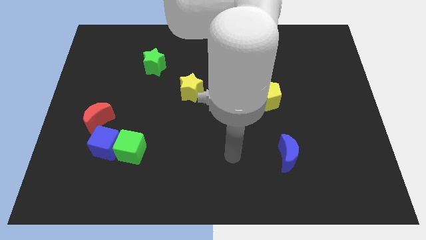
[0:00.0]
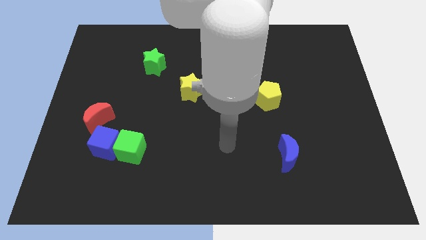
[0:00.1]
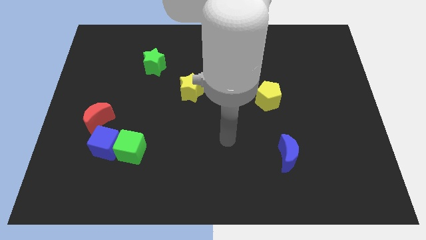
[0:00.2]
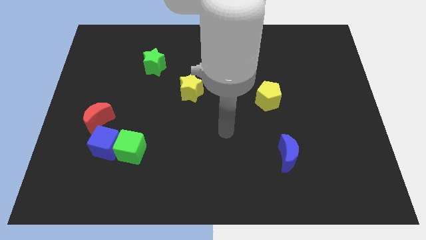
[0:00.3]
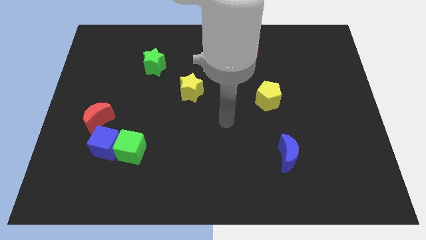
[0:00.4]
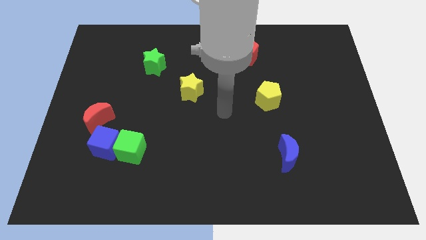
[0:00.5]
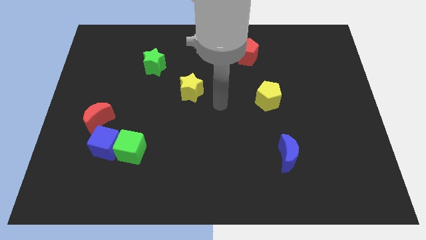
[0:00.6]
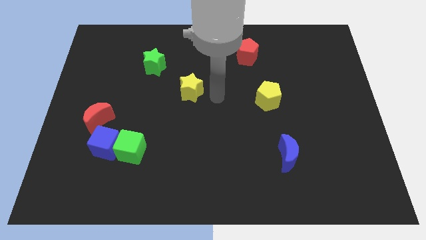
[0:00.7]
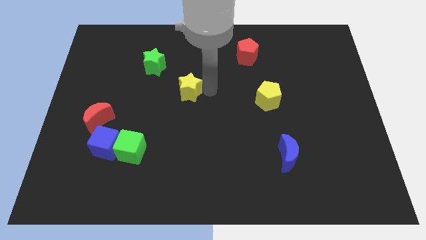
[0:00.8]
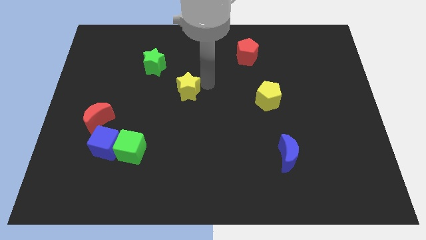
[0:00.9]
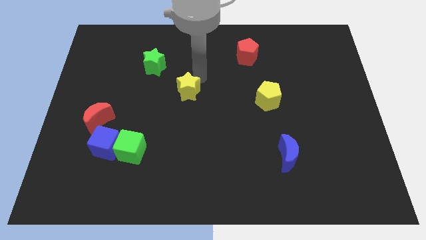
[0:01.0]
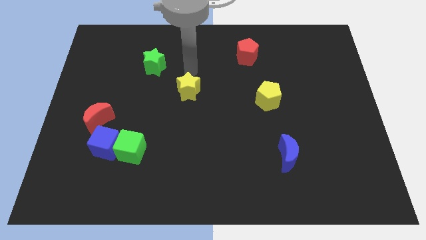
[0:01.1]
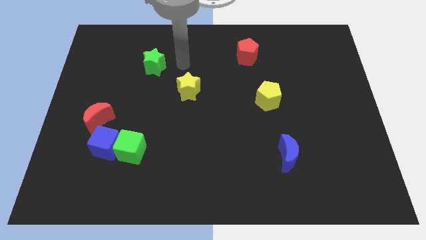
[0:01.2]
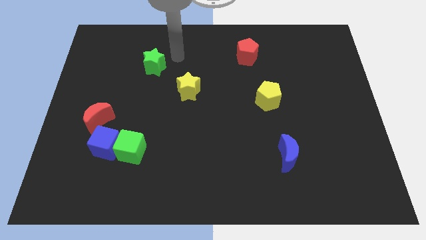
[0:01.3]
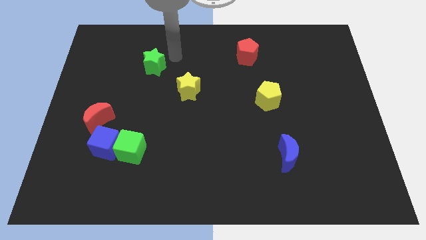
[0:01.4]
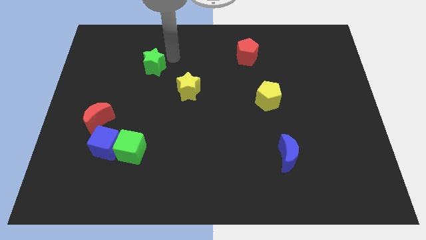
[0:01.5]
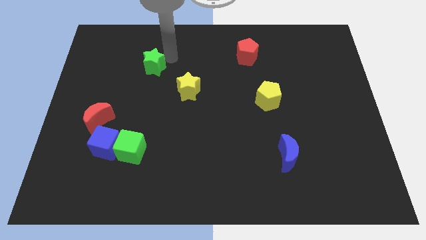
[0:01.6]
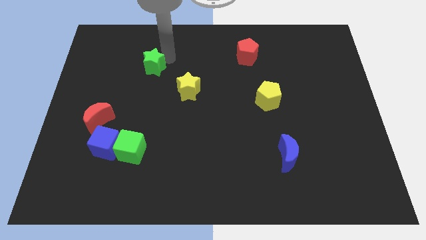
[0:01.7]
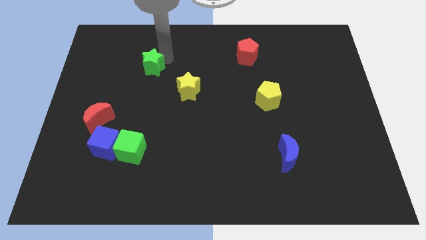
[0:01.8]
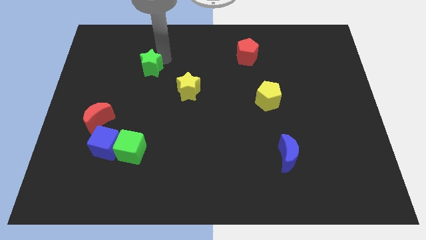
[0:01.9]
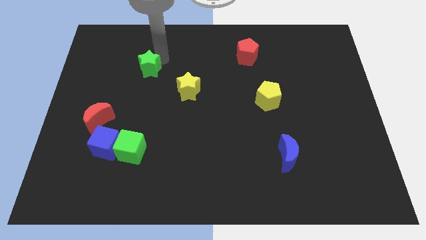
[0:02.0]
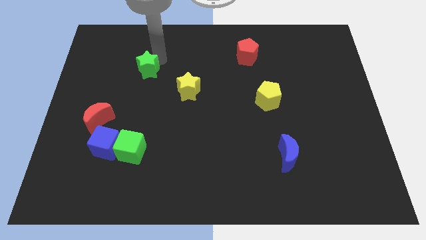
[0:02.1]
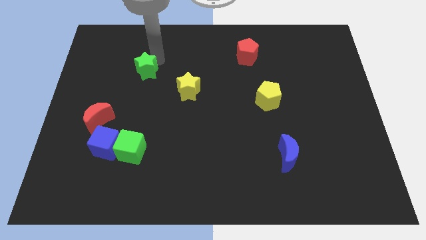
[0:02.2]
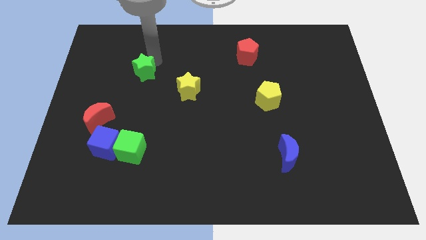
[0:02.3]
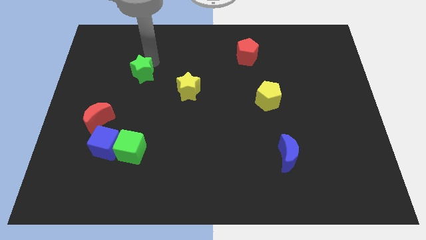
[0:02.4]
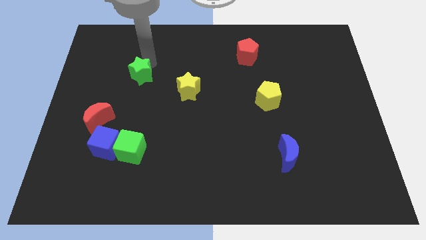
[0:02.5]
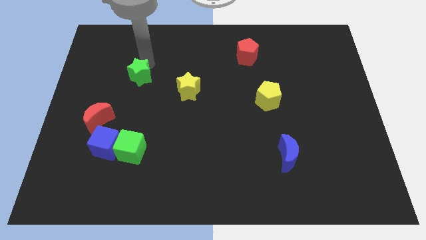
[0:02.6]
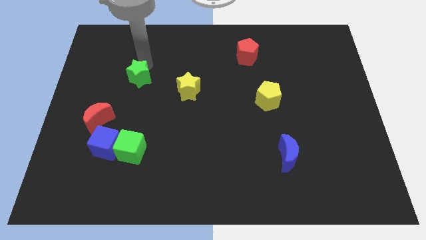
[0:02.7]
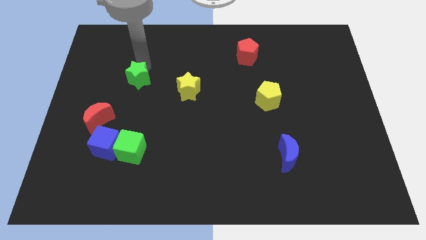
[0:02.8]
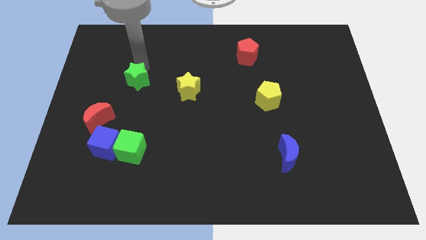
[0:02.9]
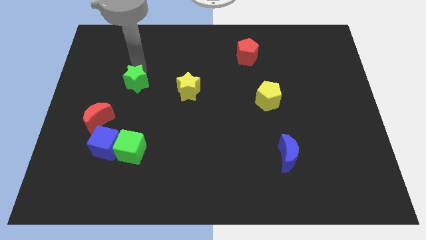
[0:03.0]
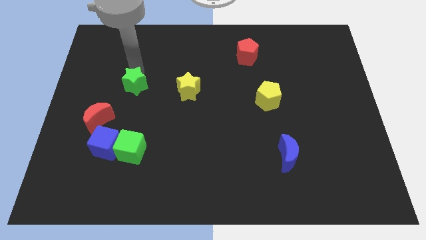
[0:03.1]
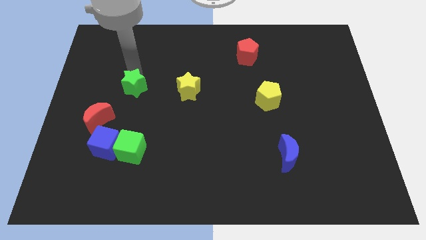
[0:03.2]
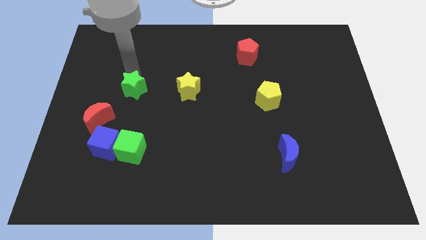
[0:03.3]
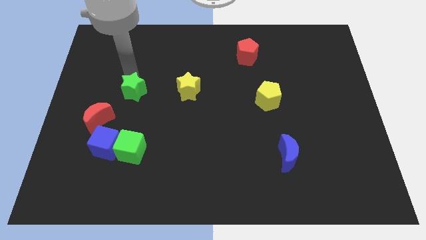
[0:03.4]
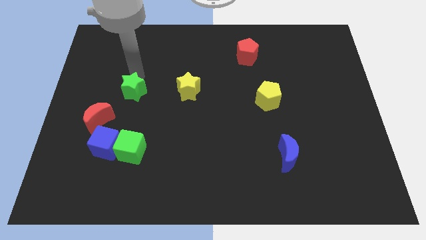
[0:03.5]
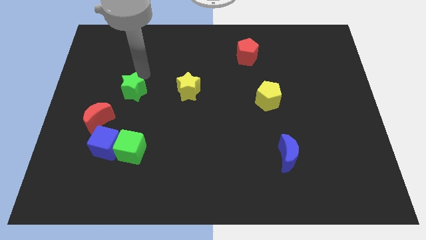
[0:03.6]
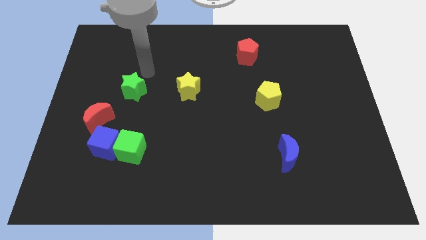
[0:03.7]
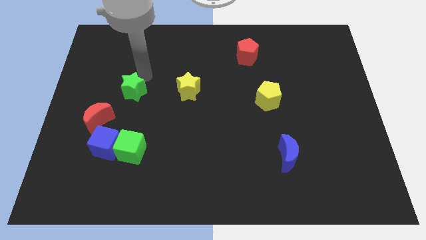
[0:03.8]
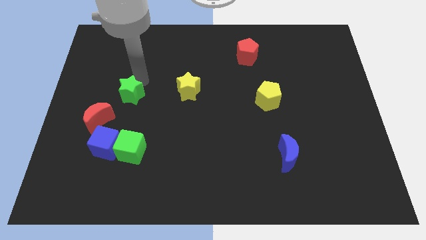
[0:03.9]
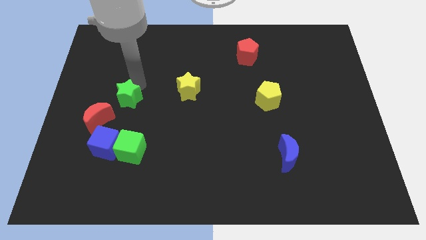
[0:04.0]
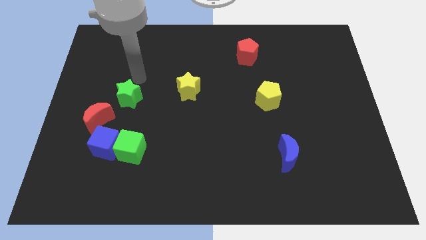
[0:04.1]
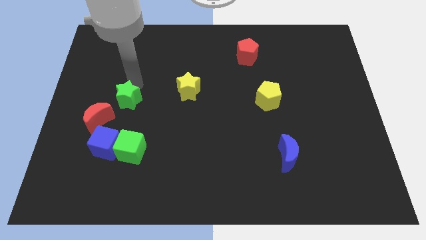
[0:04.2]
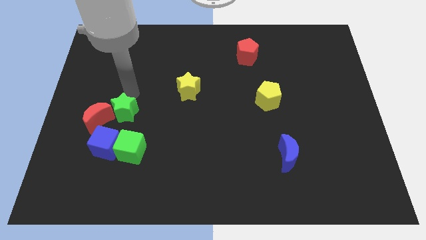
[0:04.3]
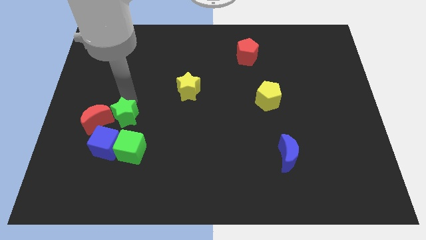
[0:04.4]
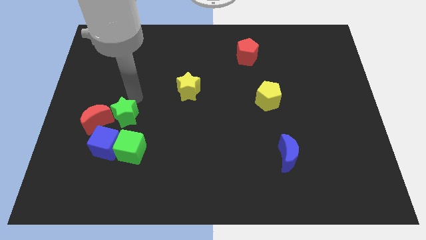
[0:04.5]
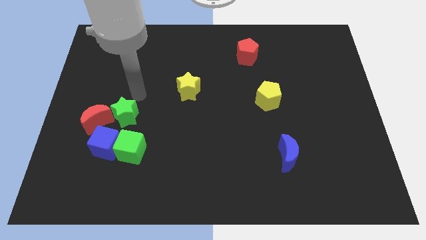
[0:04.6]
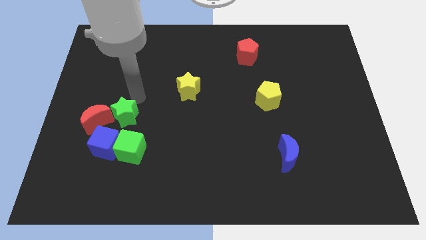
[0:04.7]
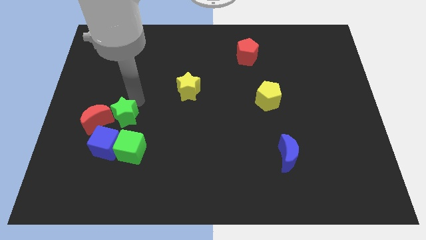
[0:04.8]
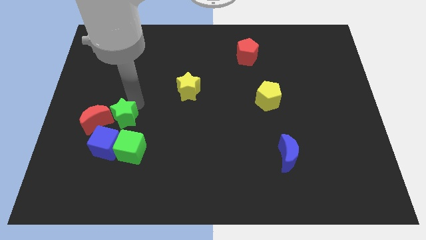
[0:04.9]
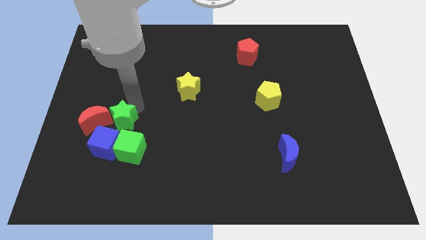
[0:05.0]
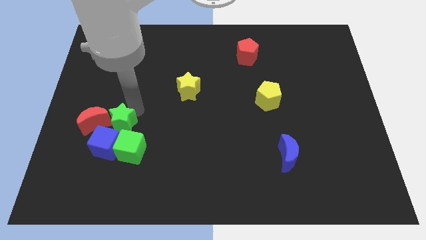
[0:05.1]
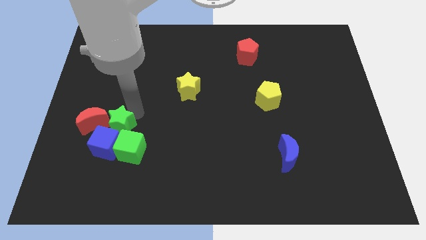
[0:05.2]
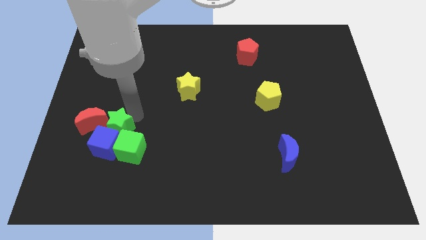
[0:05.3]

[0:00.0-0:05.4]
push the green star close to the blue cube

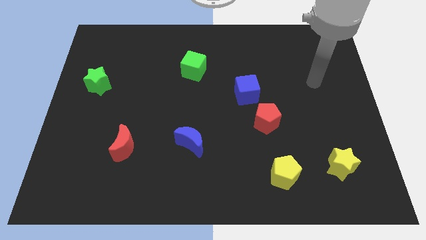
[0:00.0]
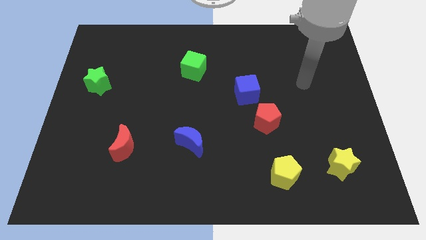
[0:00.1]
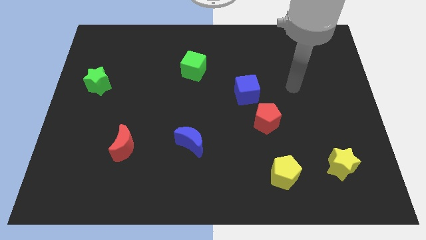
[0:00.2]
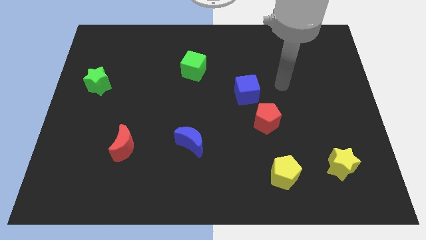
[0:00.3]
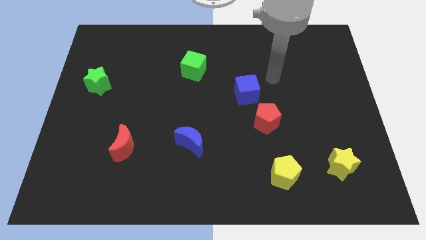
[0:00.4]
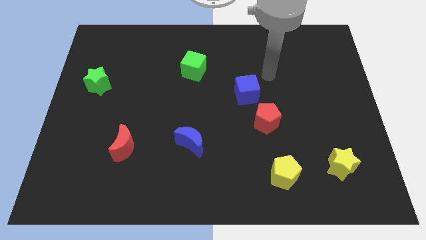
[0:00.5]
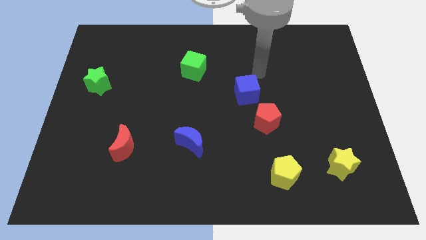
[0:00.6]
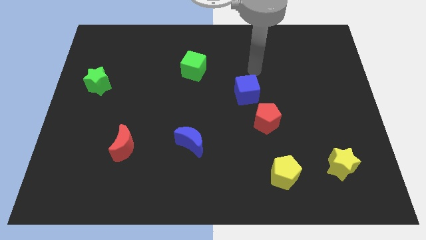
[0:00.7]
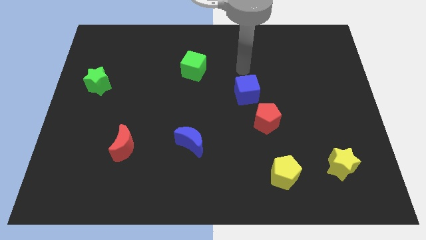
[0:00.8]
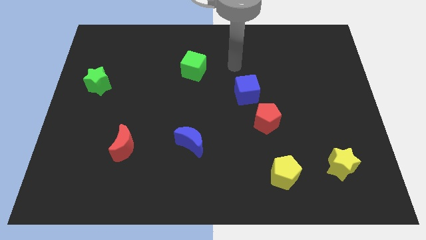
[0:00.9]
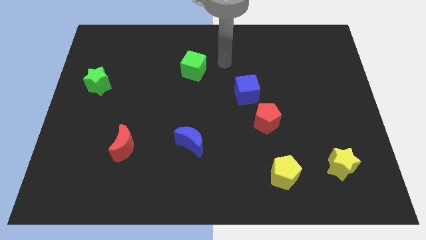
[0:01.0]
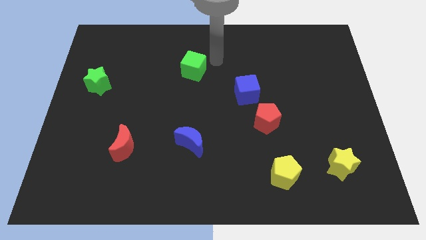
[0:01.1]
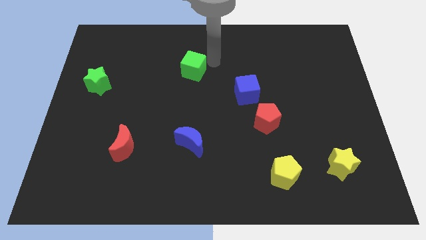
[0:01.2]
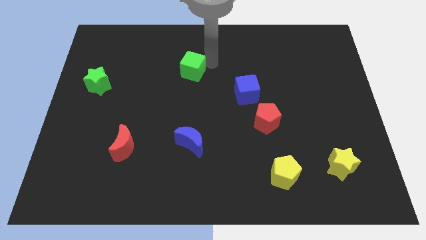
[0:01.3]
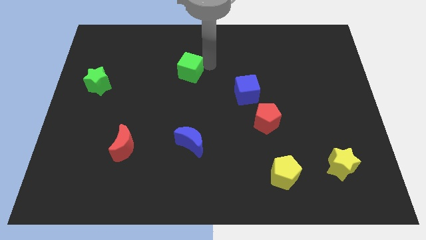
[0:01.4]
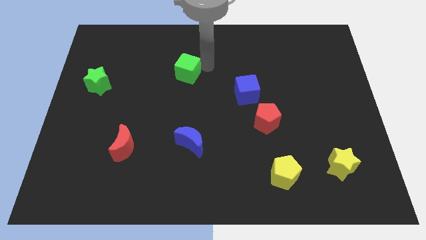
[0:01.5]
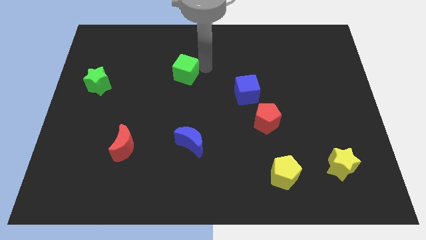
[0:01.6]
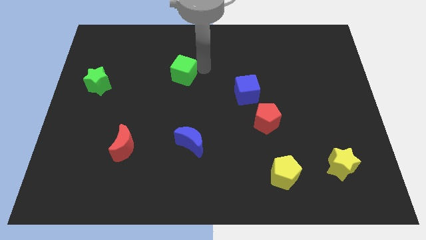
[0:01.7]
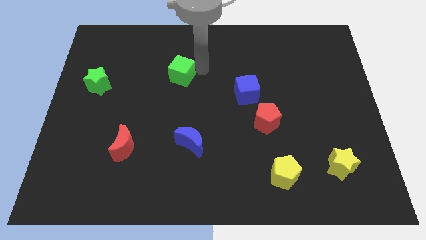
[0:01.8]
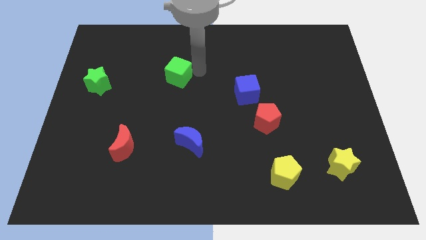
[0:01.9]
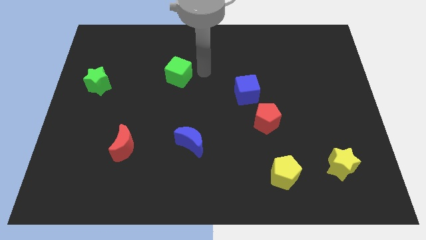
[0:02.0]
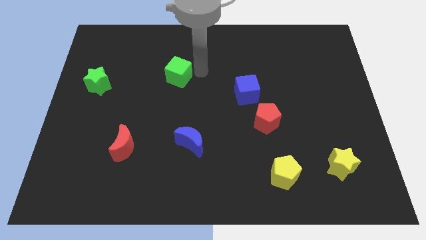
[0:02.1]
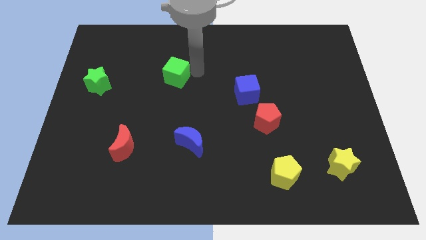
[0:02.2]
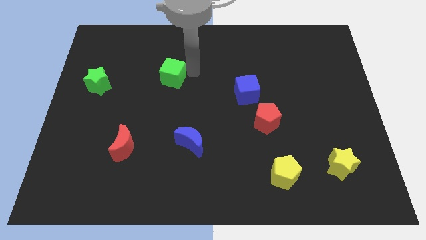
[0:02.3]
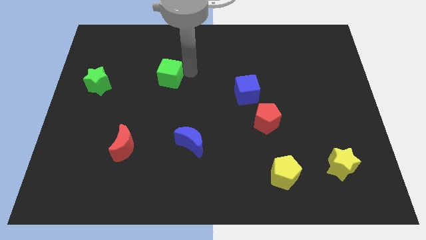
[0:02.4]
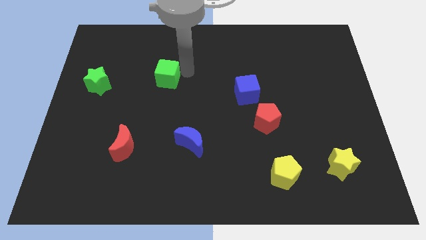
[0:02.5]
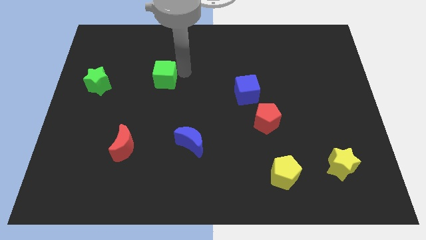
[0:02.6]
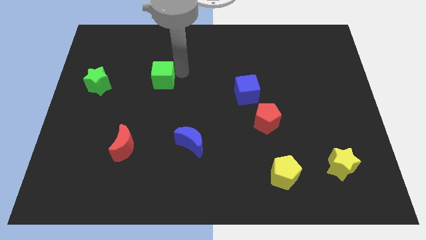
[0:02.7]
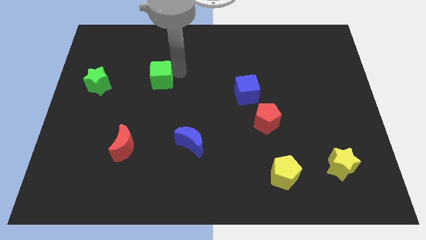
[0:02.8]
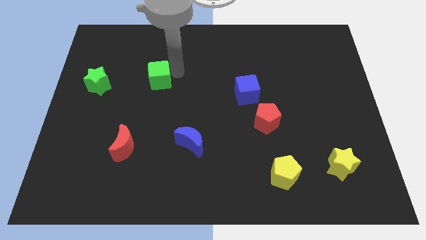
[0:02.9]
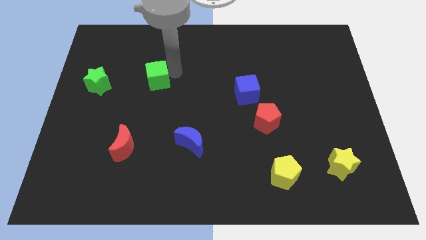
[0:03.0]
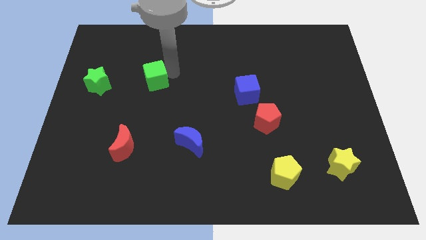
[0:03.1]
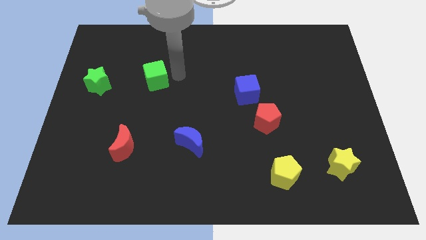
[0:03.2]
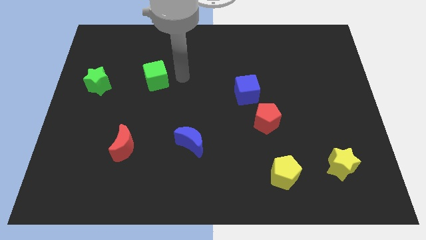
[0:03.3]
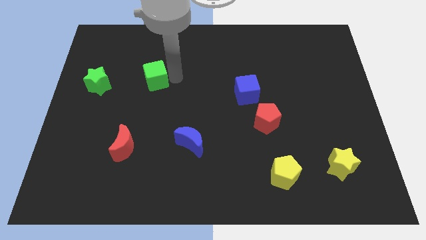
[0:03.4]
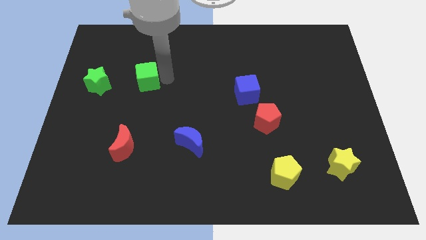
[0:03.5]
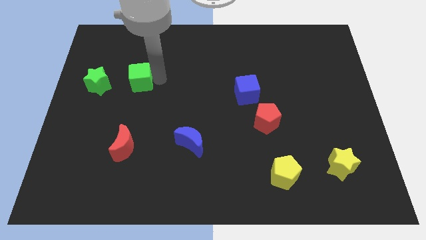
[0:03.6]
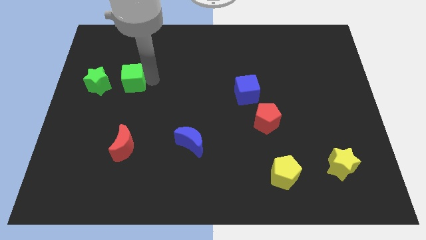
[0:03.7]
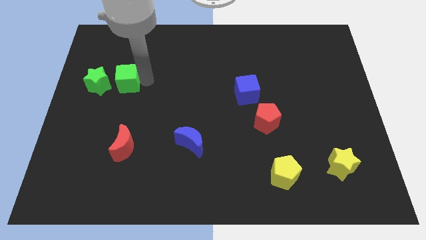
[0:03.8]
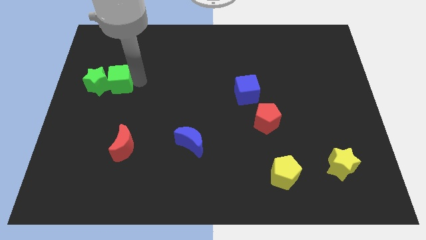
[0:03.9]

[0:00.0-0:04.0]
put the green cube next to the green star
